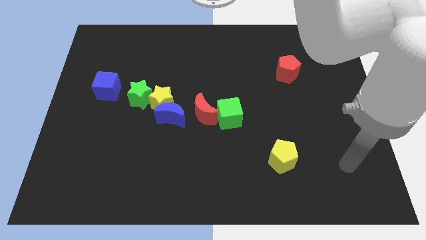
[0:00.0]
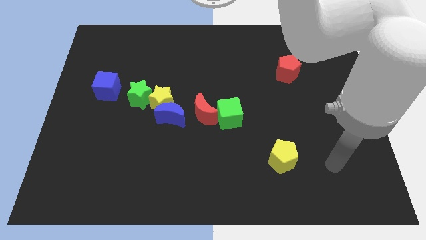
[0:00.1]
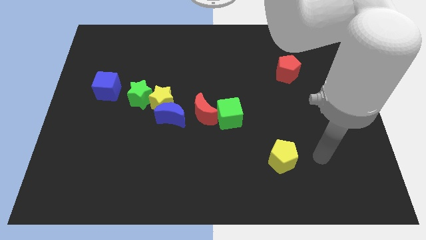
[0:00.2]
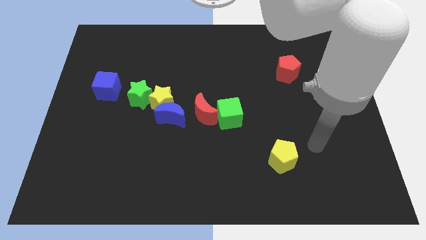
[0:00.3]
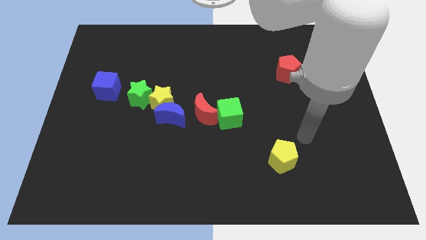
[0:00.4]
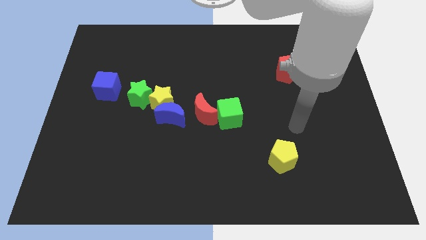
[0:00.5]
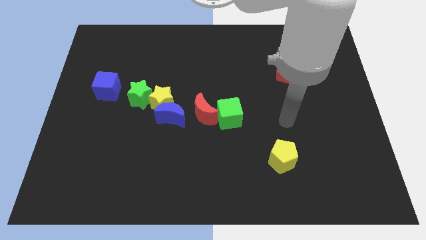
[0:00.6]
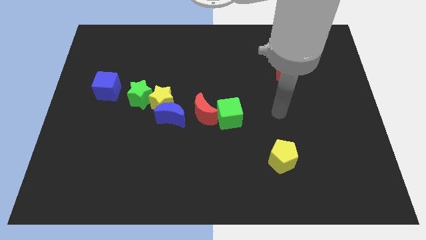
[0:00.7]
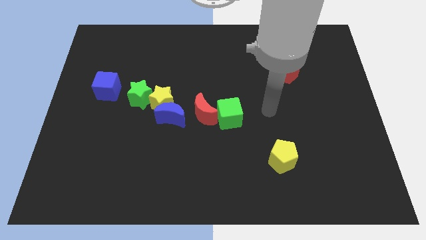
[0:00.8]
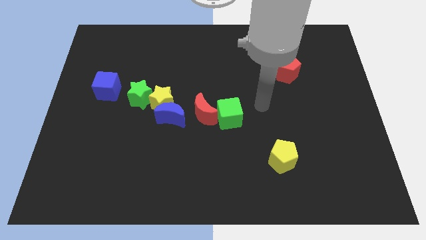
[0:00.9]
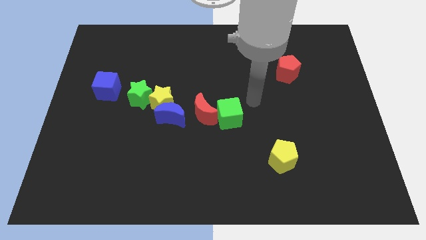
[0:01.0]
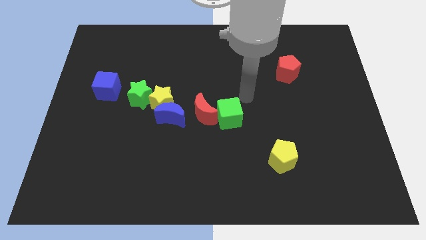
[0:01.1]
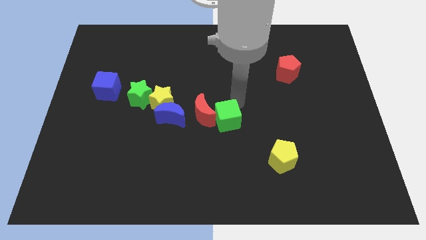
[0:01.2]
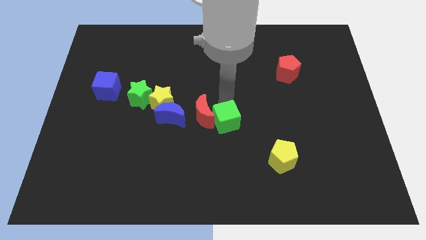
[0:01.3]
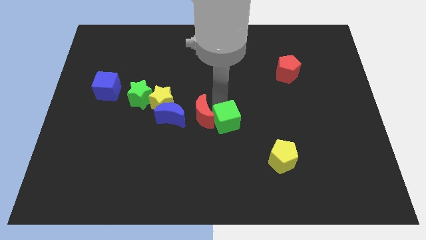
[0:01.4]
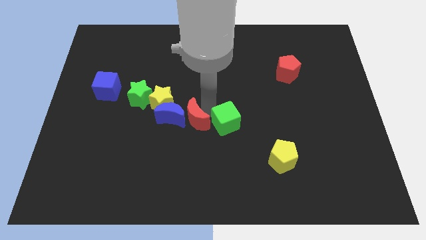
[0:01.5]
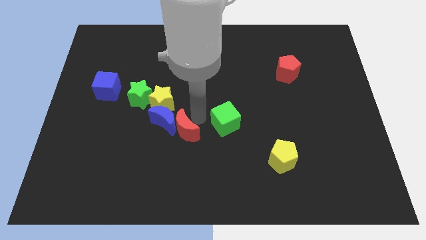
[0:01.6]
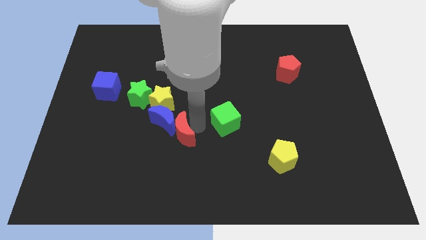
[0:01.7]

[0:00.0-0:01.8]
move the green cube away from the red moon

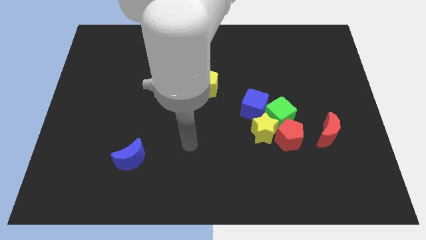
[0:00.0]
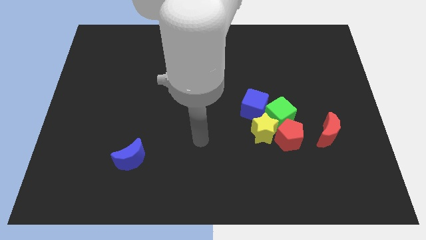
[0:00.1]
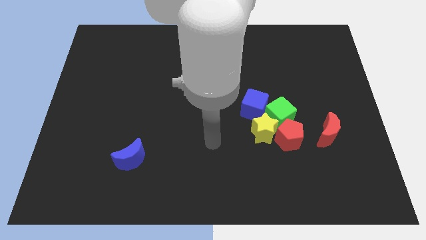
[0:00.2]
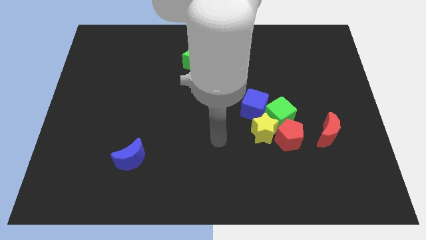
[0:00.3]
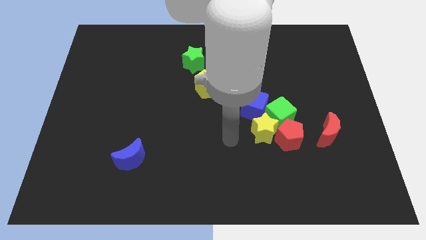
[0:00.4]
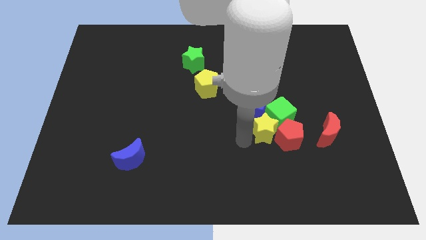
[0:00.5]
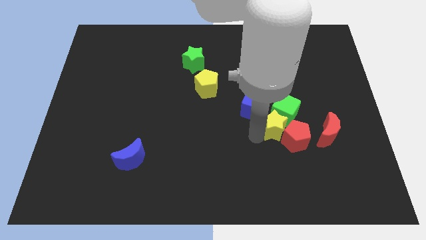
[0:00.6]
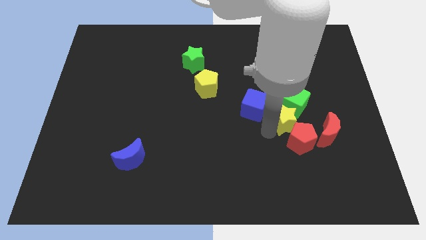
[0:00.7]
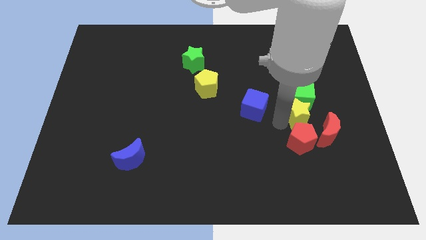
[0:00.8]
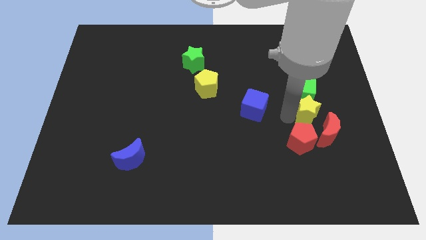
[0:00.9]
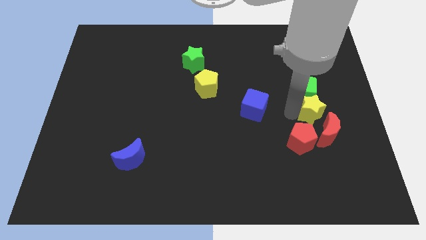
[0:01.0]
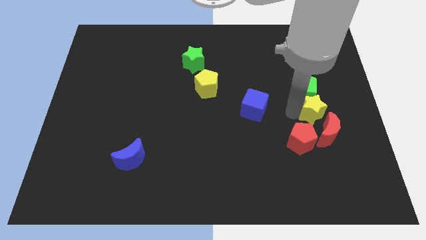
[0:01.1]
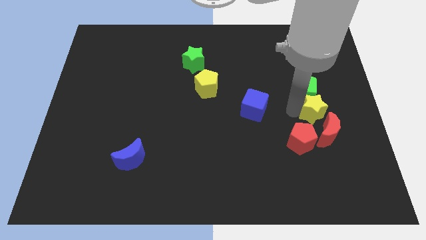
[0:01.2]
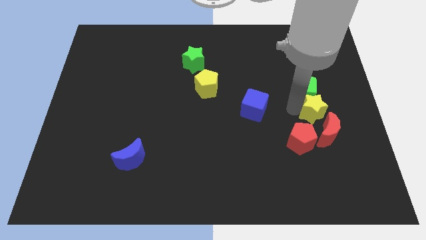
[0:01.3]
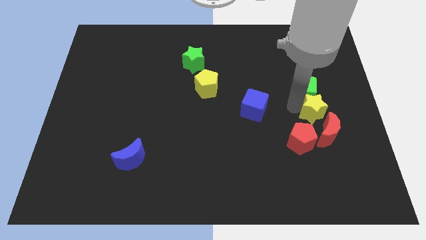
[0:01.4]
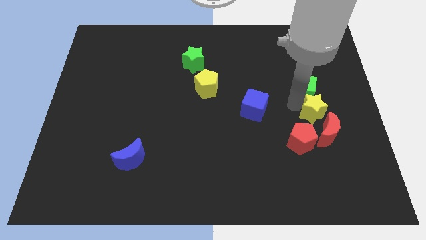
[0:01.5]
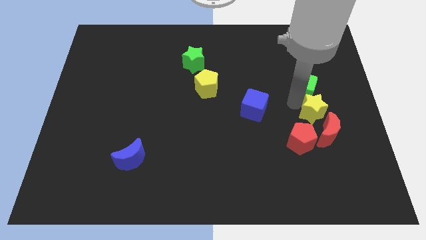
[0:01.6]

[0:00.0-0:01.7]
pull the green cube apart from the group

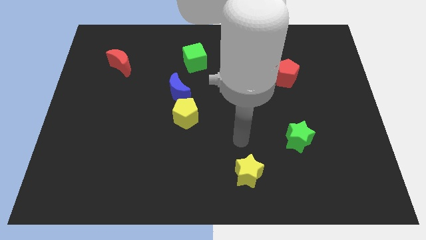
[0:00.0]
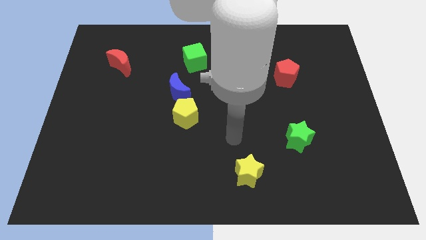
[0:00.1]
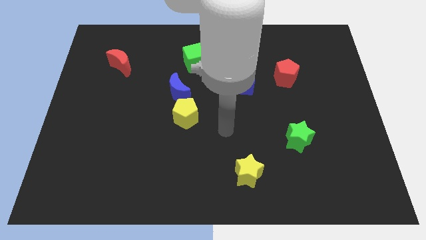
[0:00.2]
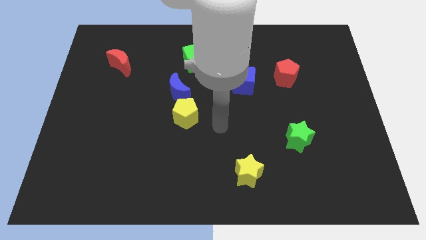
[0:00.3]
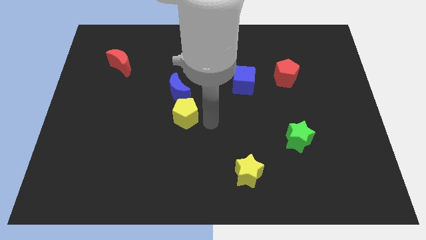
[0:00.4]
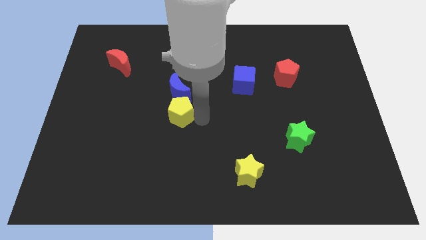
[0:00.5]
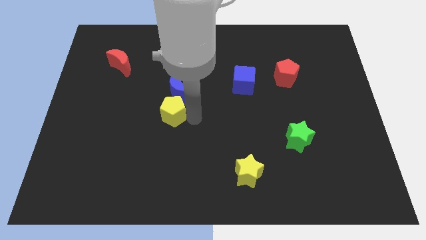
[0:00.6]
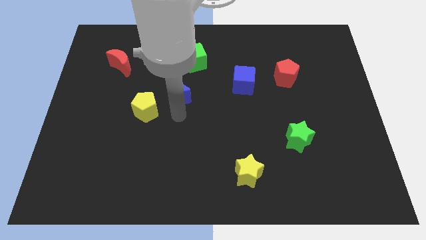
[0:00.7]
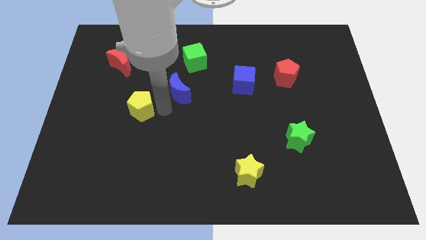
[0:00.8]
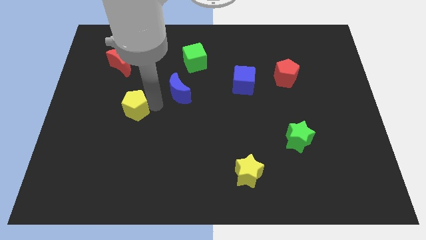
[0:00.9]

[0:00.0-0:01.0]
pull the blue moon apart from the yellow pentagon

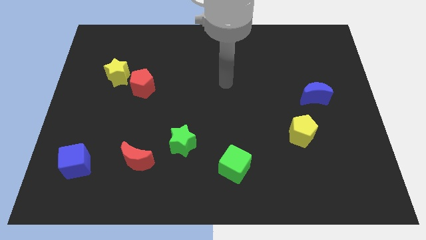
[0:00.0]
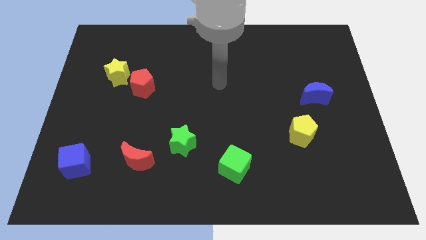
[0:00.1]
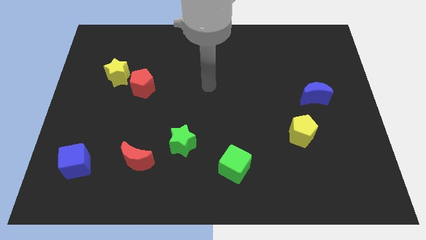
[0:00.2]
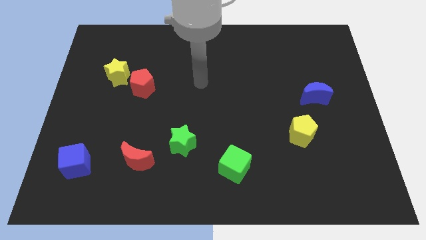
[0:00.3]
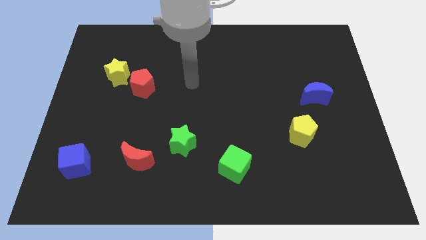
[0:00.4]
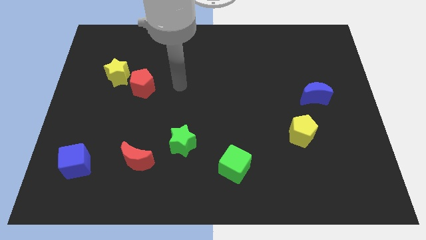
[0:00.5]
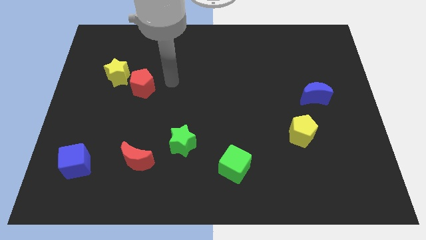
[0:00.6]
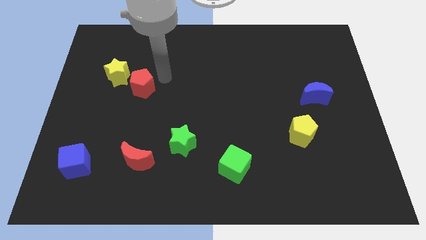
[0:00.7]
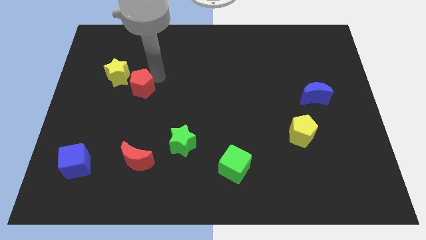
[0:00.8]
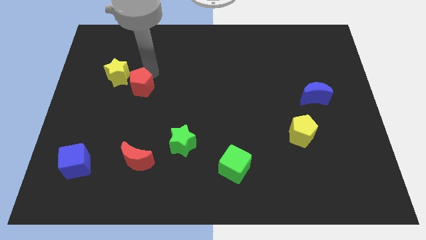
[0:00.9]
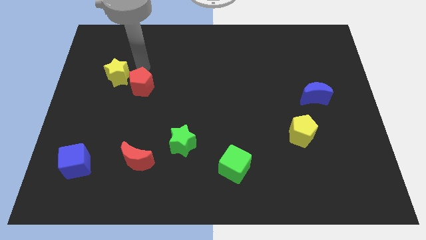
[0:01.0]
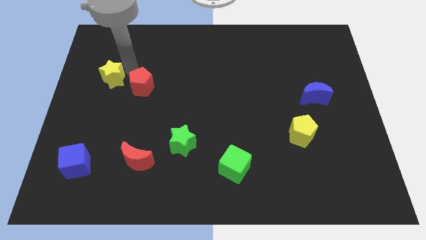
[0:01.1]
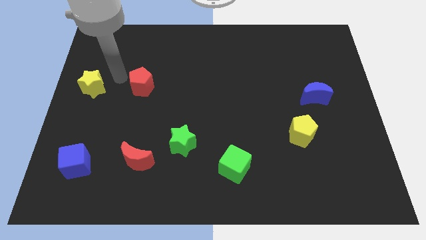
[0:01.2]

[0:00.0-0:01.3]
separate the red pentagon from the yellow star

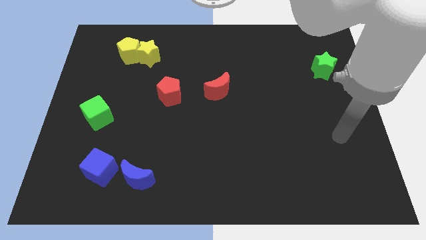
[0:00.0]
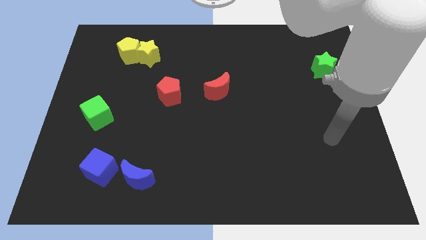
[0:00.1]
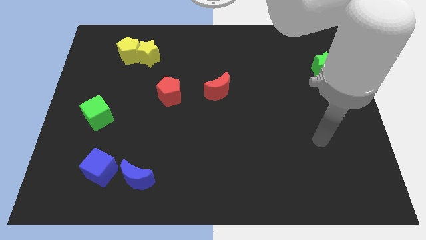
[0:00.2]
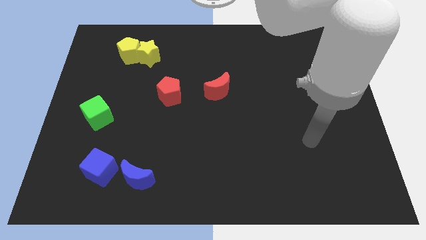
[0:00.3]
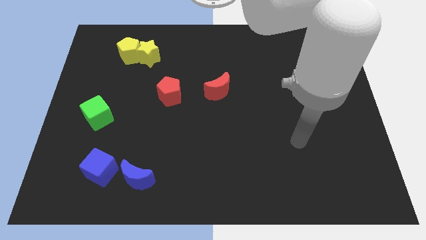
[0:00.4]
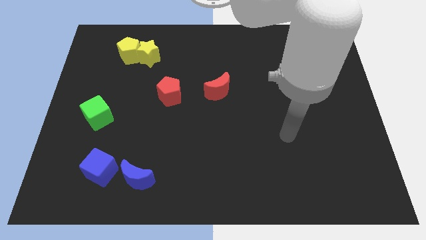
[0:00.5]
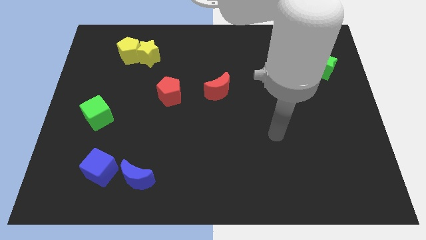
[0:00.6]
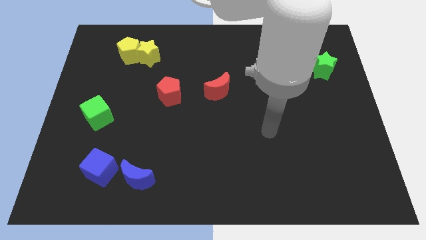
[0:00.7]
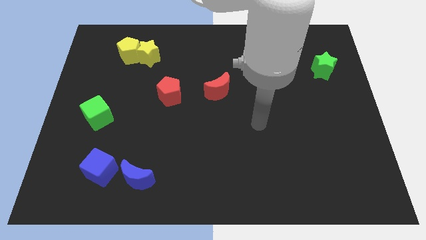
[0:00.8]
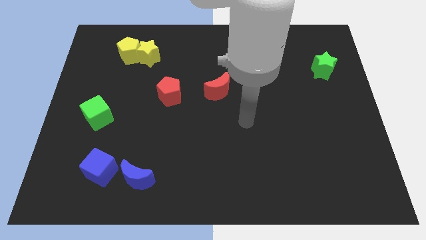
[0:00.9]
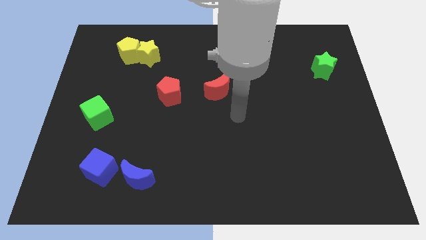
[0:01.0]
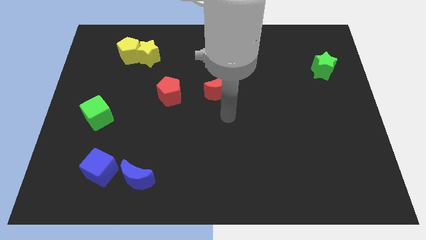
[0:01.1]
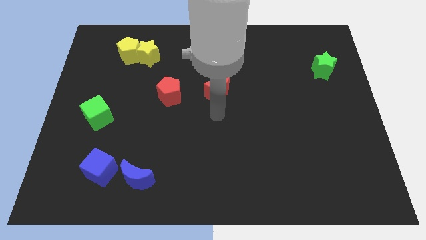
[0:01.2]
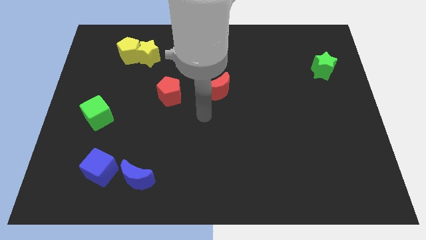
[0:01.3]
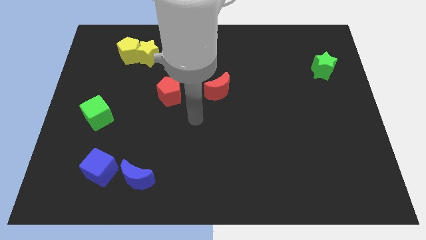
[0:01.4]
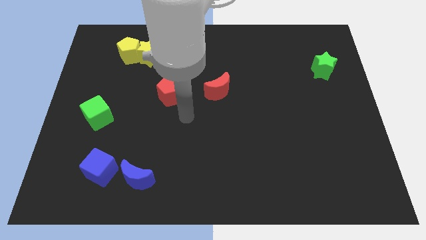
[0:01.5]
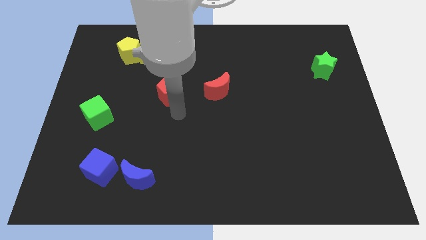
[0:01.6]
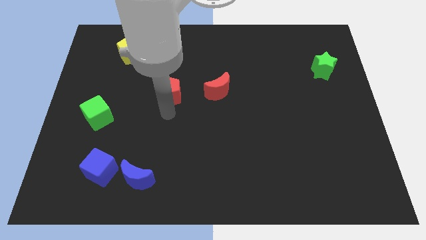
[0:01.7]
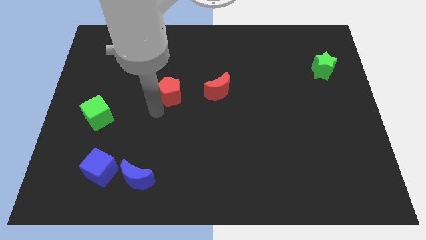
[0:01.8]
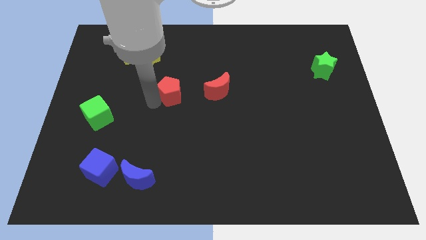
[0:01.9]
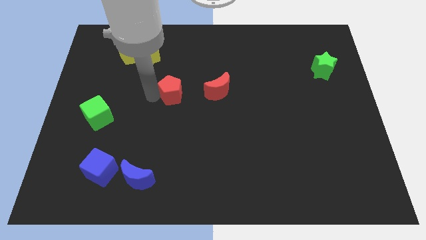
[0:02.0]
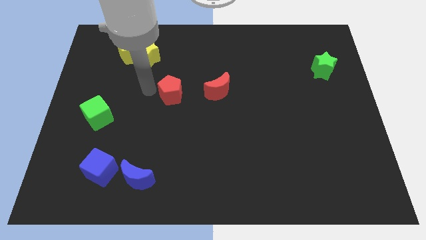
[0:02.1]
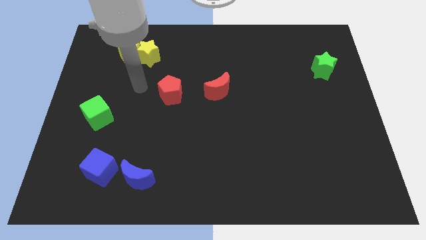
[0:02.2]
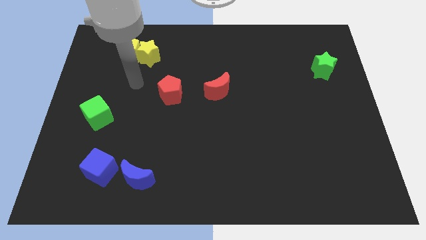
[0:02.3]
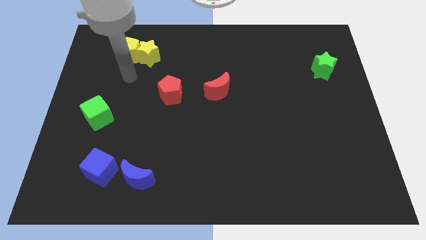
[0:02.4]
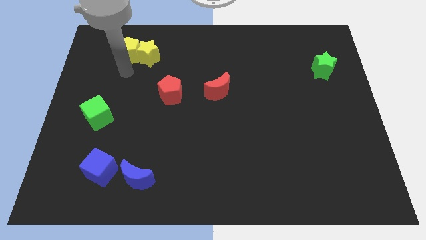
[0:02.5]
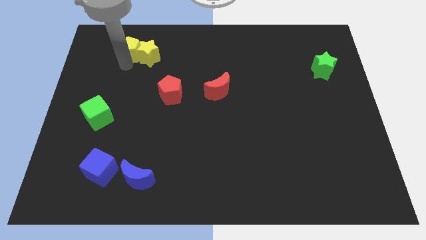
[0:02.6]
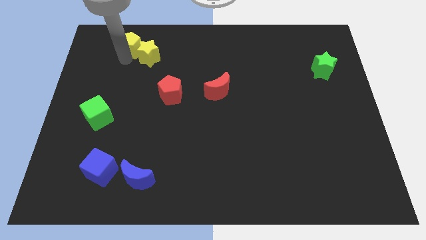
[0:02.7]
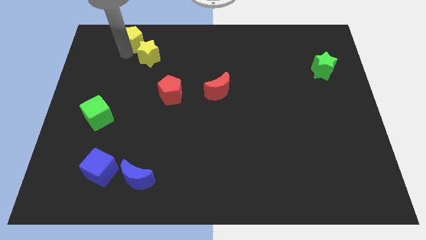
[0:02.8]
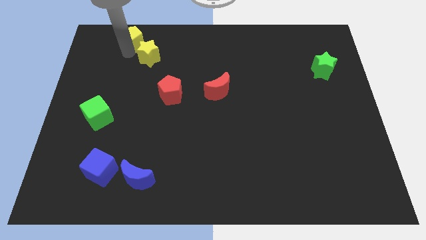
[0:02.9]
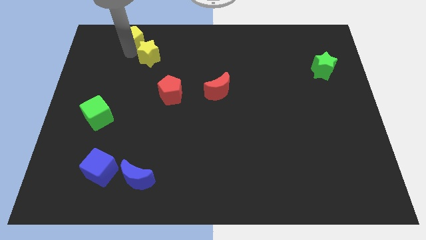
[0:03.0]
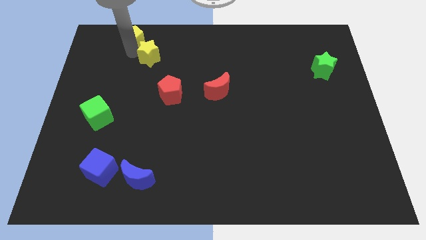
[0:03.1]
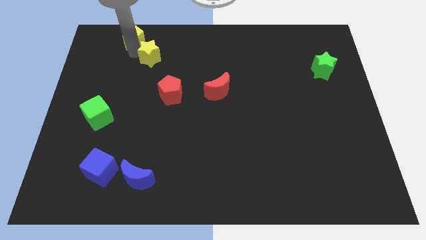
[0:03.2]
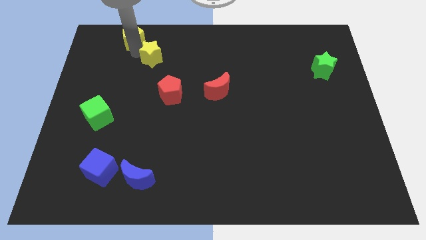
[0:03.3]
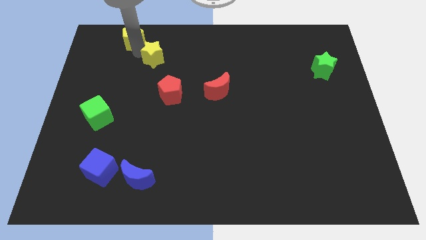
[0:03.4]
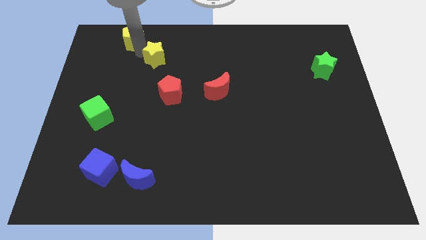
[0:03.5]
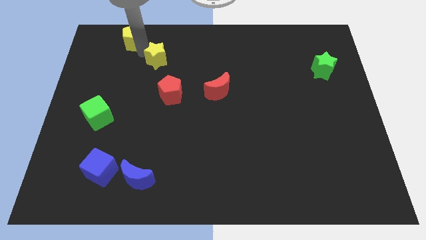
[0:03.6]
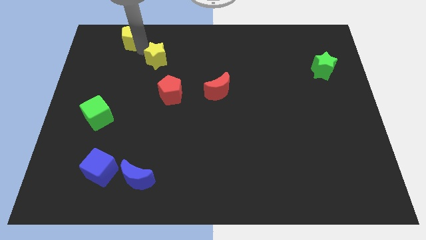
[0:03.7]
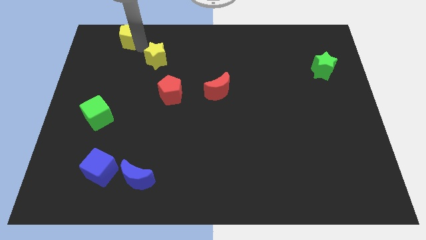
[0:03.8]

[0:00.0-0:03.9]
move the yellow star away from the yellow pentagon
